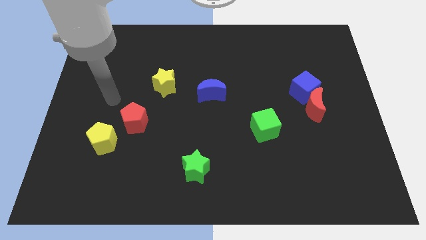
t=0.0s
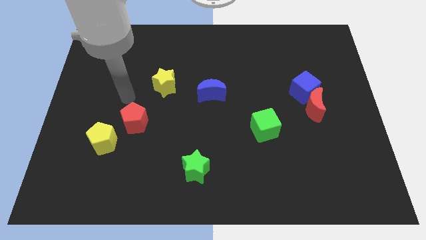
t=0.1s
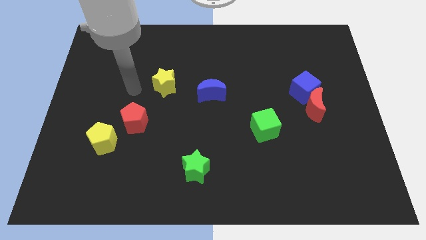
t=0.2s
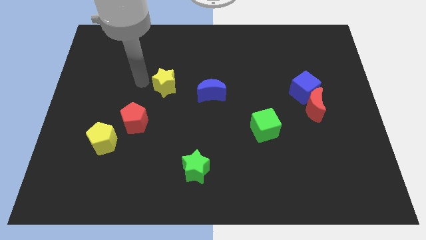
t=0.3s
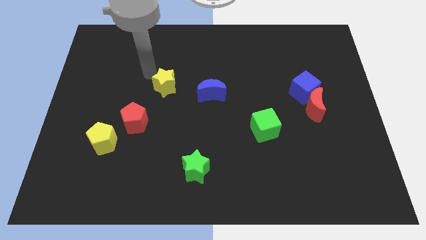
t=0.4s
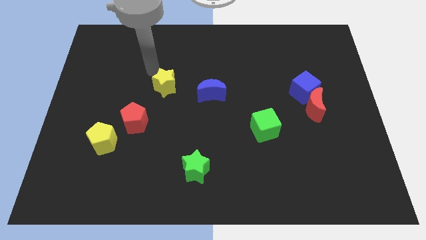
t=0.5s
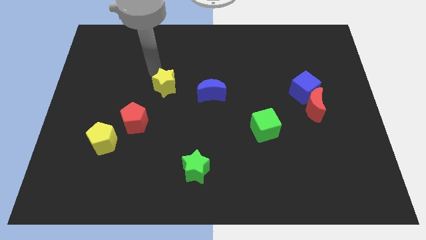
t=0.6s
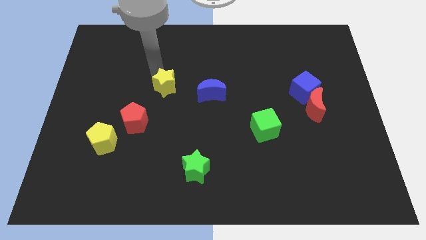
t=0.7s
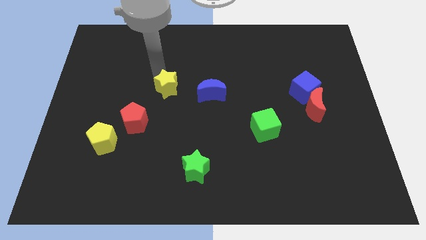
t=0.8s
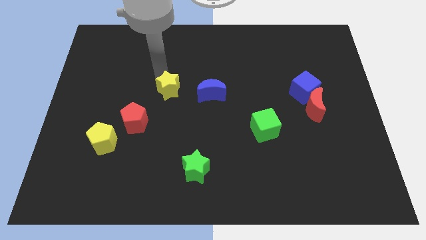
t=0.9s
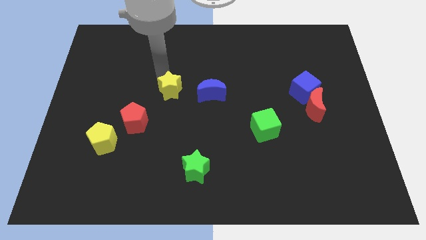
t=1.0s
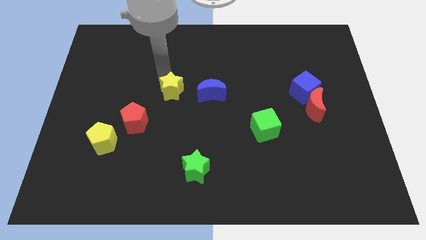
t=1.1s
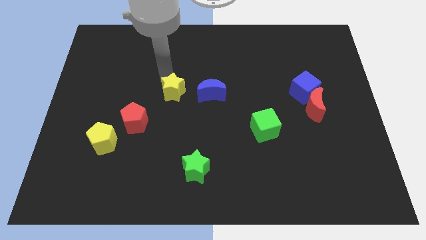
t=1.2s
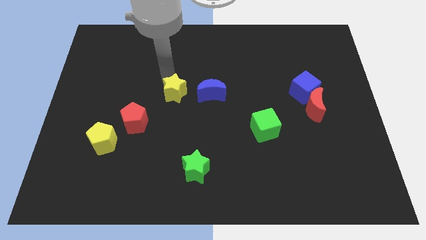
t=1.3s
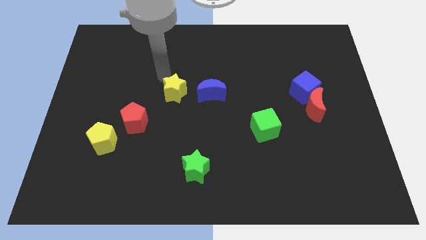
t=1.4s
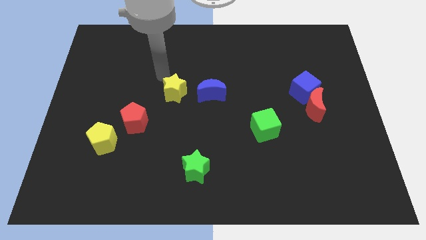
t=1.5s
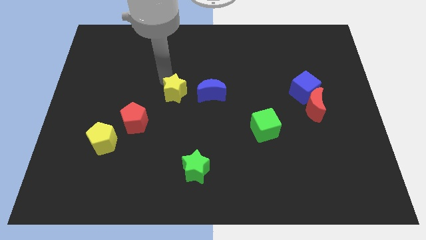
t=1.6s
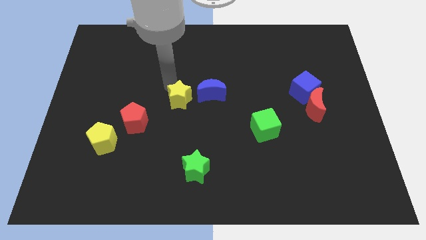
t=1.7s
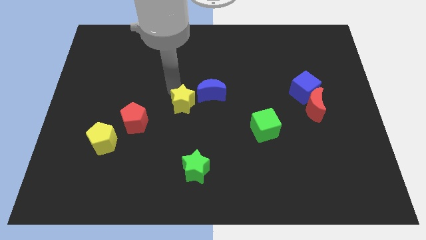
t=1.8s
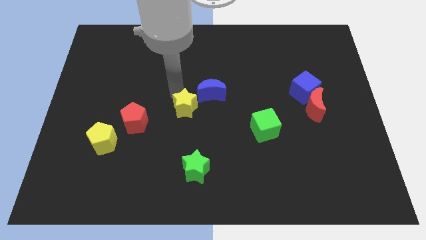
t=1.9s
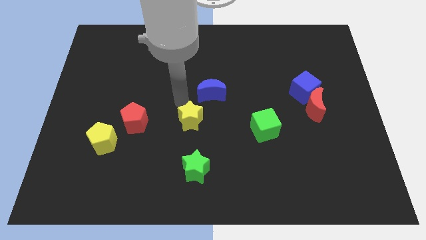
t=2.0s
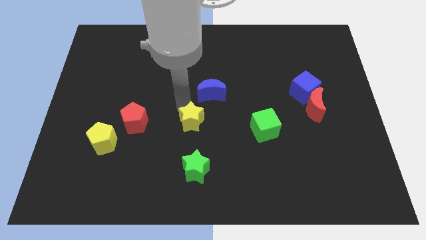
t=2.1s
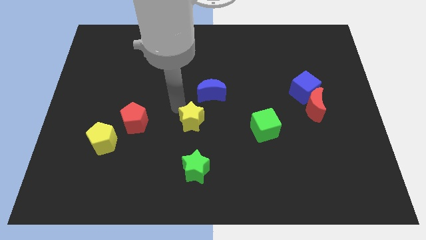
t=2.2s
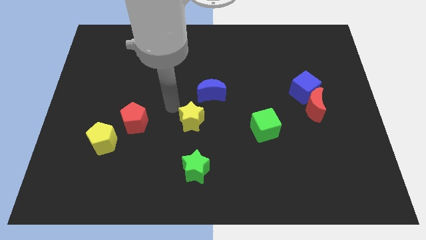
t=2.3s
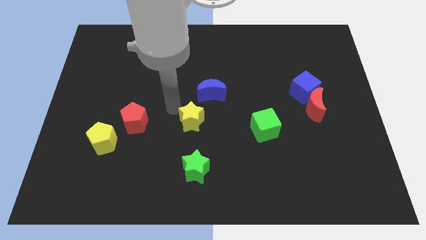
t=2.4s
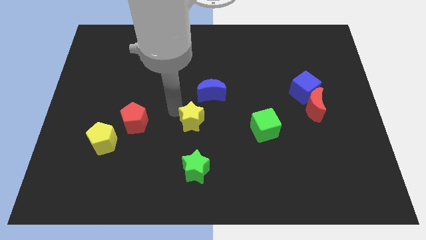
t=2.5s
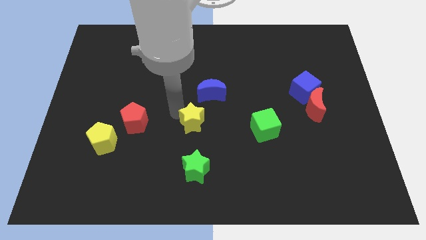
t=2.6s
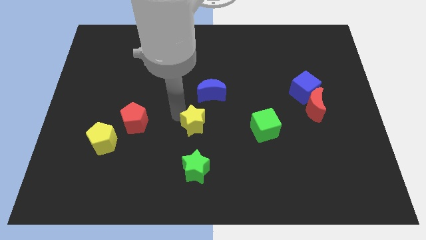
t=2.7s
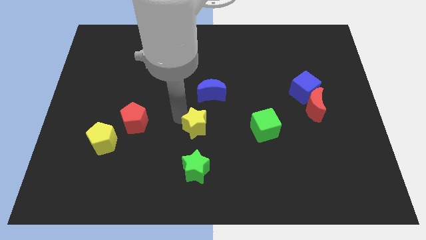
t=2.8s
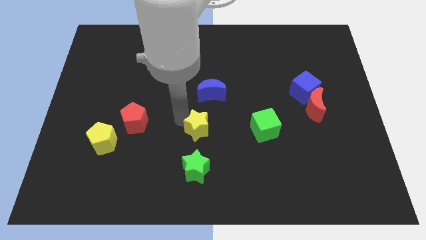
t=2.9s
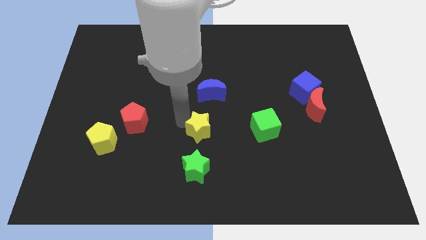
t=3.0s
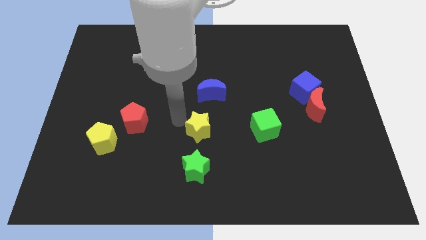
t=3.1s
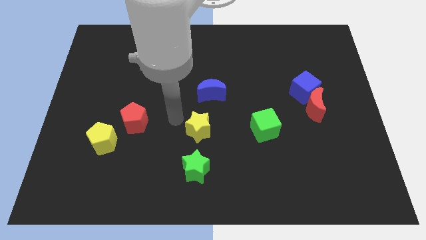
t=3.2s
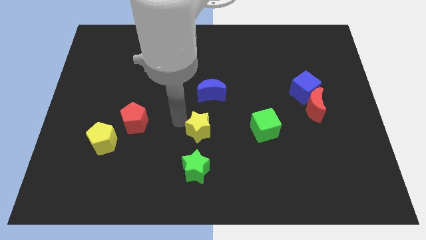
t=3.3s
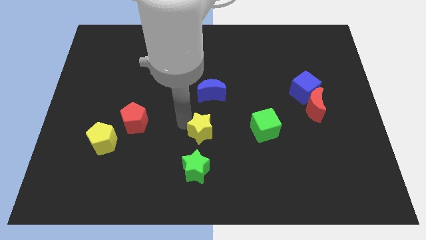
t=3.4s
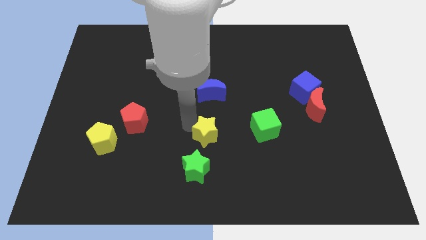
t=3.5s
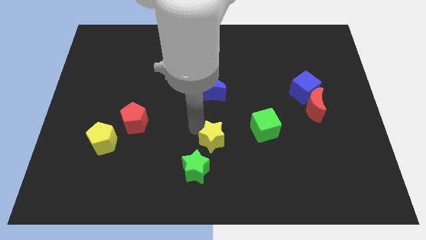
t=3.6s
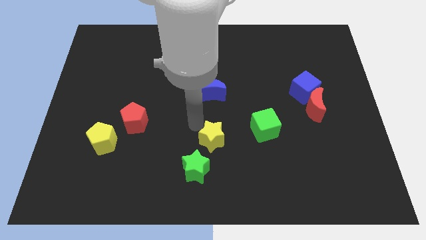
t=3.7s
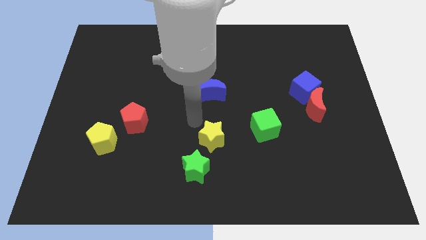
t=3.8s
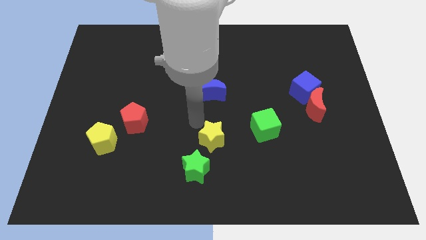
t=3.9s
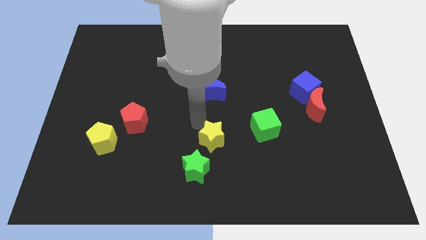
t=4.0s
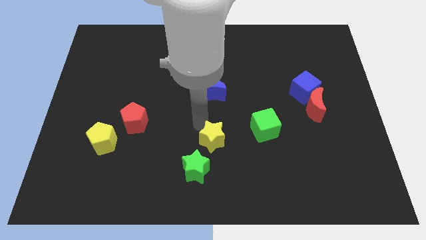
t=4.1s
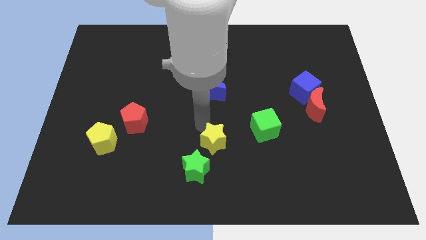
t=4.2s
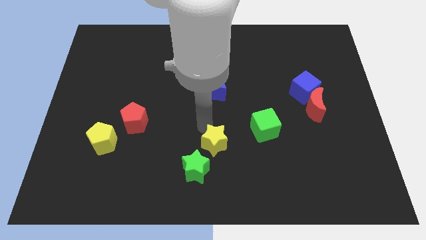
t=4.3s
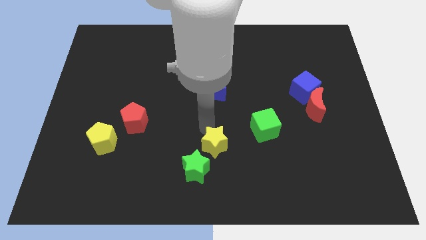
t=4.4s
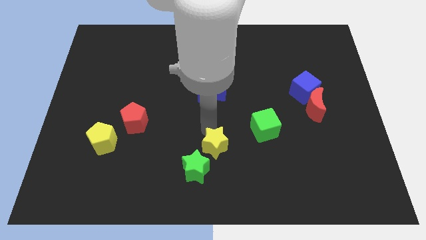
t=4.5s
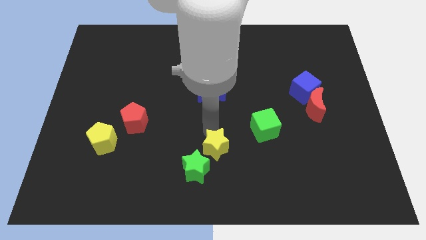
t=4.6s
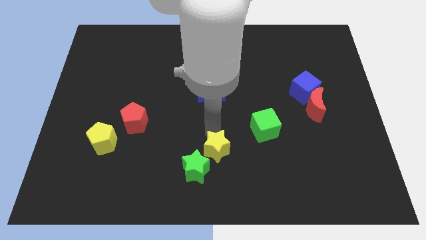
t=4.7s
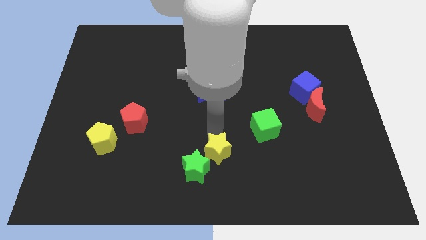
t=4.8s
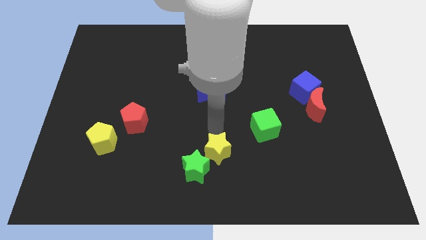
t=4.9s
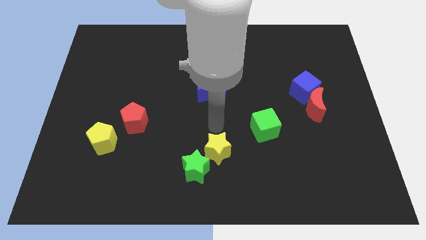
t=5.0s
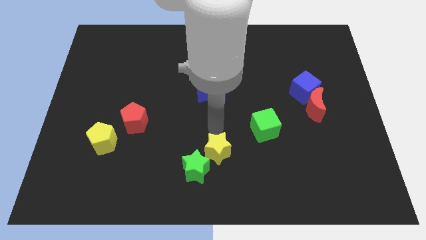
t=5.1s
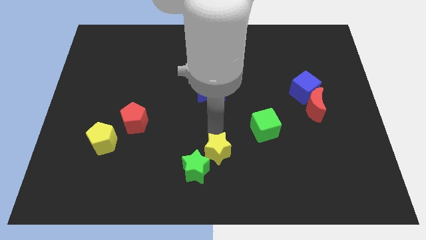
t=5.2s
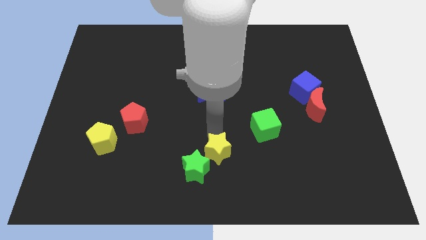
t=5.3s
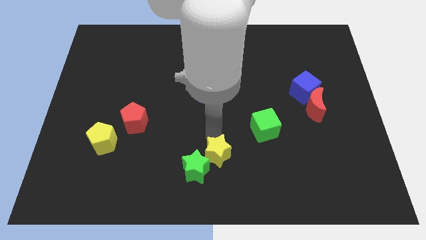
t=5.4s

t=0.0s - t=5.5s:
put the yellow star to the bottom side
